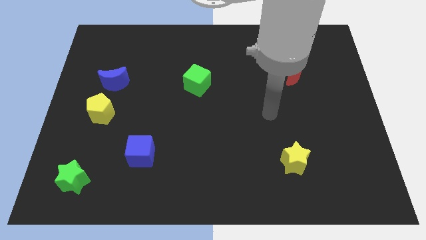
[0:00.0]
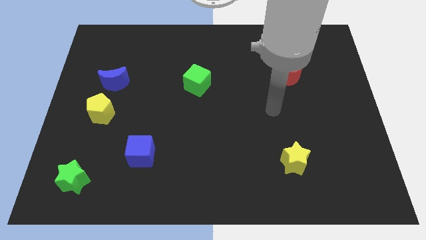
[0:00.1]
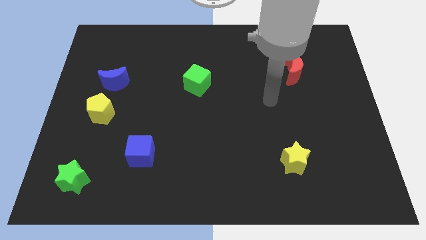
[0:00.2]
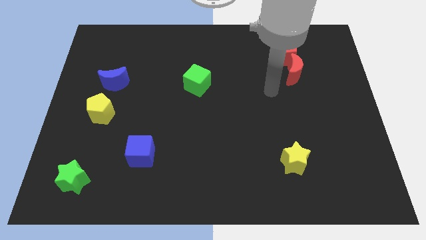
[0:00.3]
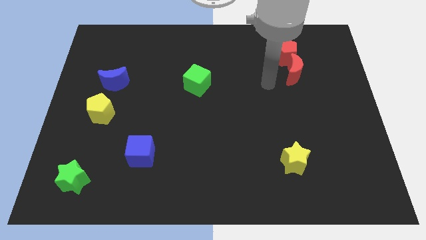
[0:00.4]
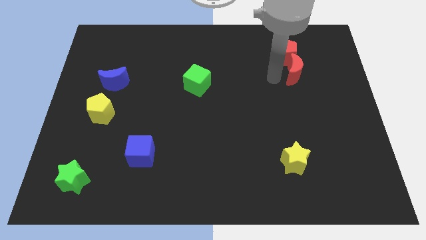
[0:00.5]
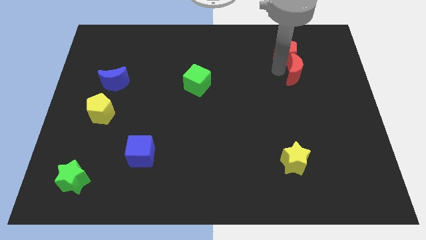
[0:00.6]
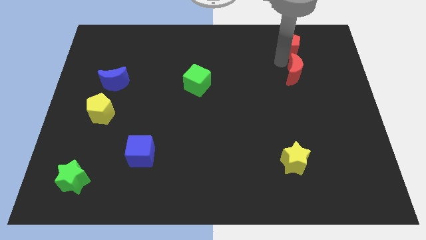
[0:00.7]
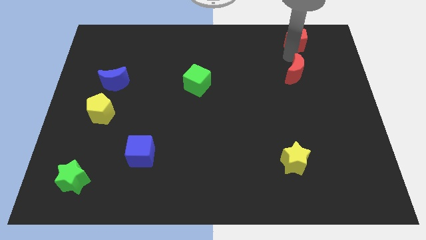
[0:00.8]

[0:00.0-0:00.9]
separate the red moon from the red pentagon

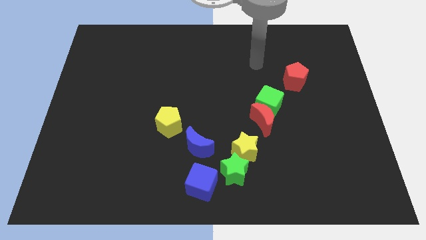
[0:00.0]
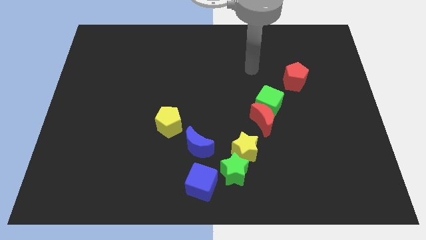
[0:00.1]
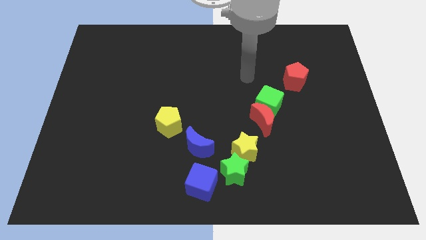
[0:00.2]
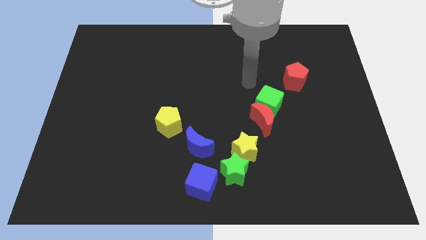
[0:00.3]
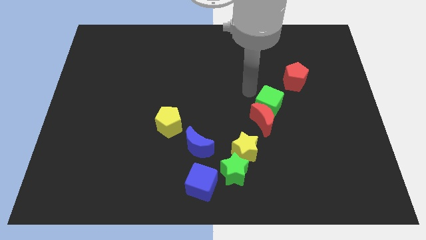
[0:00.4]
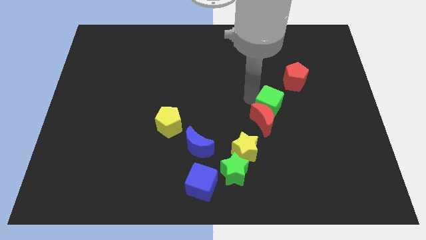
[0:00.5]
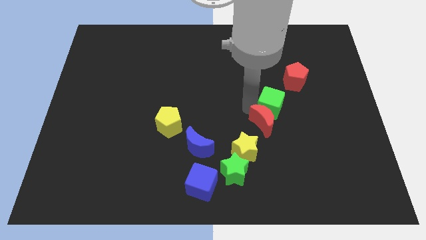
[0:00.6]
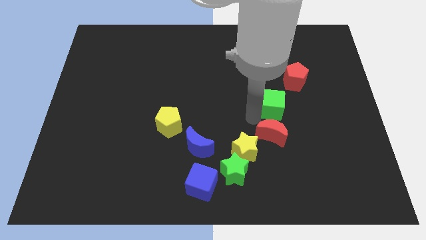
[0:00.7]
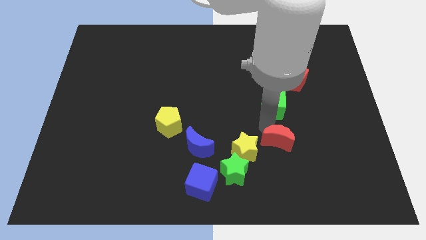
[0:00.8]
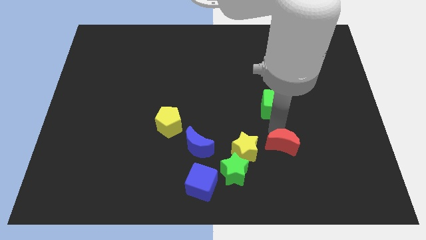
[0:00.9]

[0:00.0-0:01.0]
pull the green cube apart from the red moon

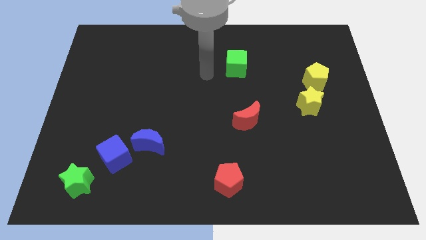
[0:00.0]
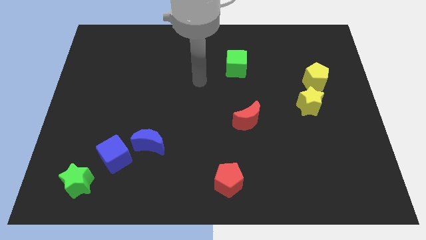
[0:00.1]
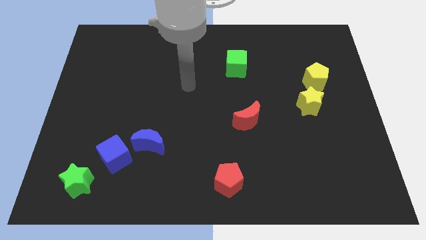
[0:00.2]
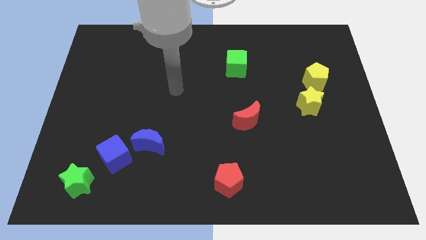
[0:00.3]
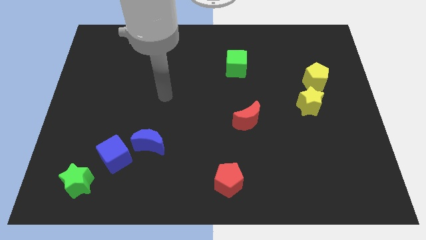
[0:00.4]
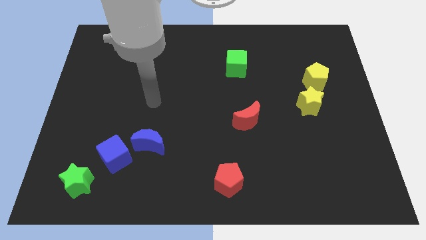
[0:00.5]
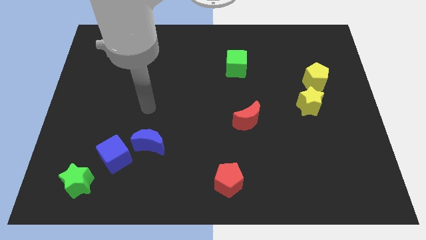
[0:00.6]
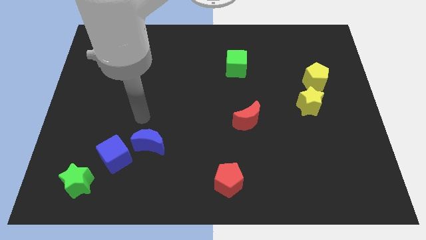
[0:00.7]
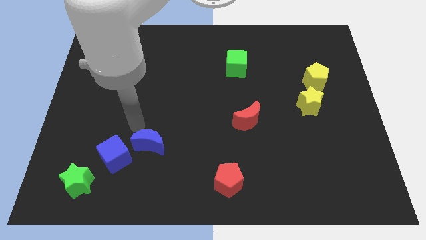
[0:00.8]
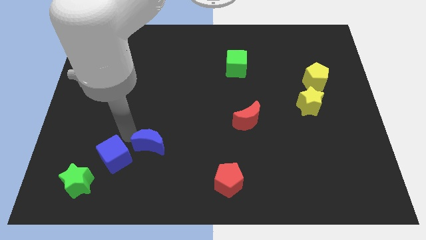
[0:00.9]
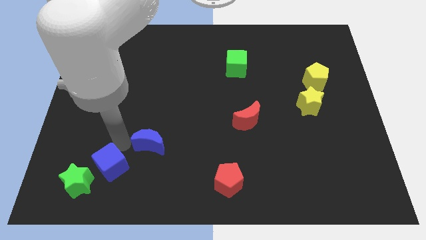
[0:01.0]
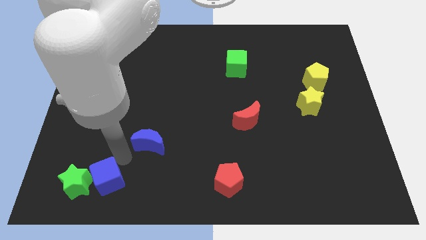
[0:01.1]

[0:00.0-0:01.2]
pull the blue moon apart from the blue cube

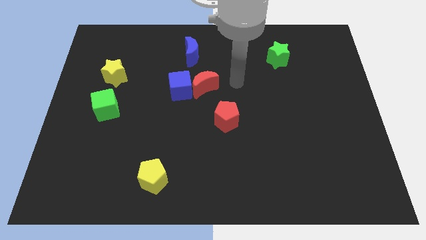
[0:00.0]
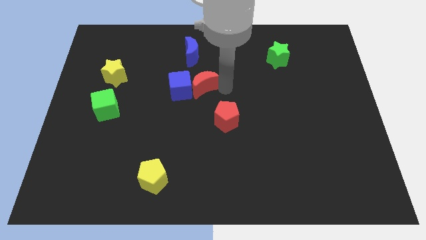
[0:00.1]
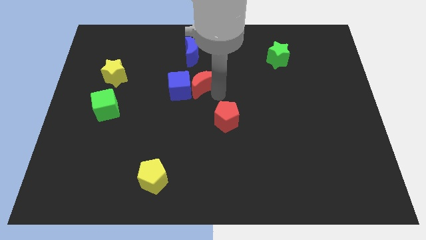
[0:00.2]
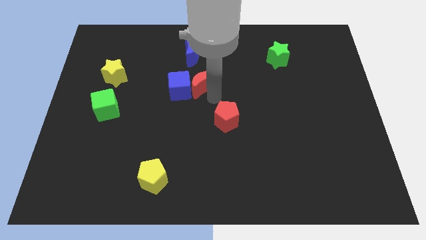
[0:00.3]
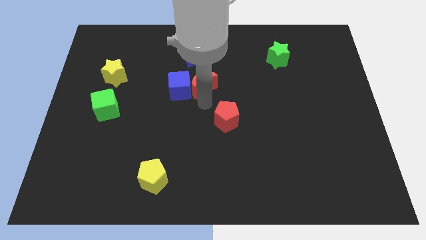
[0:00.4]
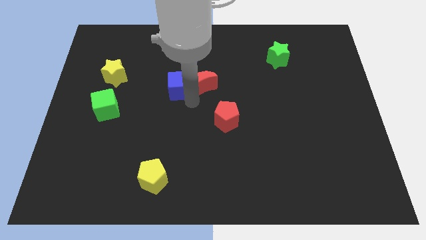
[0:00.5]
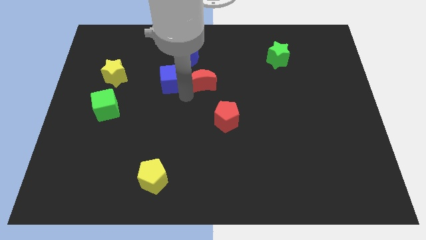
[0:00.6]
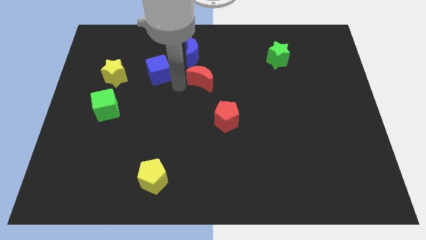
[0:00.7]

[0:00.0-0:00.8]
pull the red moon apart from the blue cube

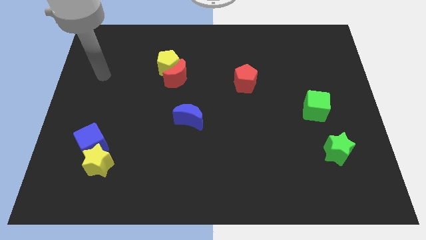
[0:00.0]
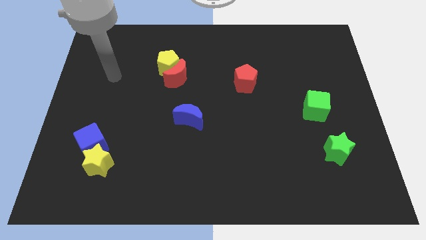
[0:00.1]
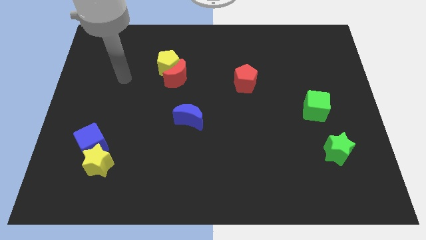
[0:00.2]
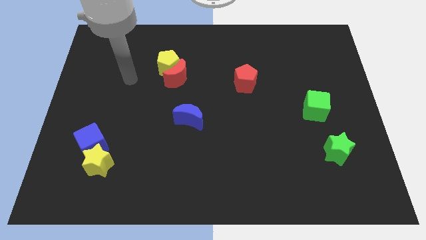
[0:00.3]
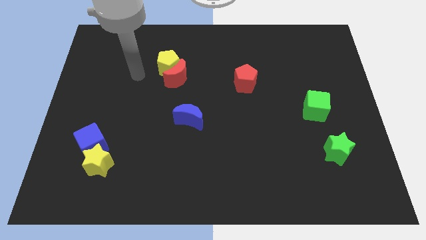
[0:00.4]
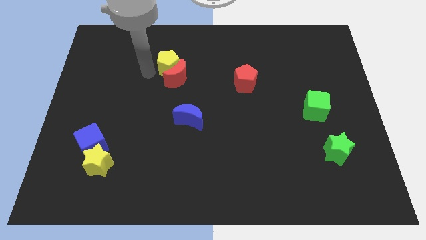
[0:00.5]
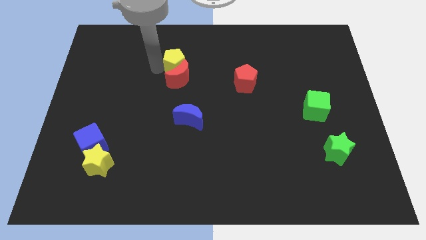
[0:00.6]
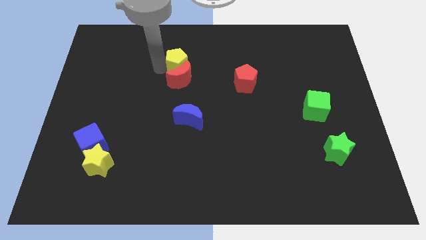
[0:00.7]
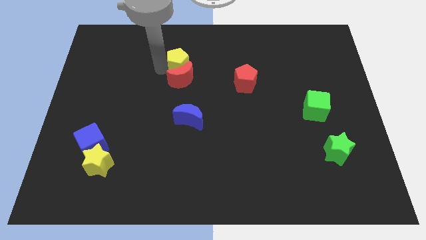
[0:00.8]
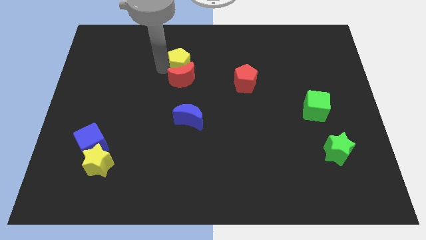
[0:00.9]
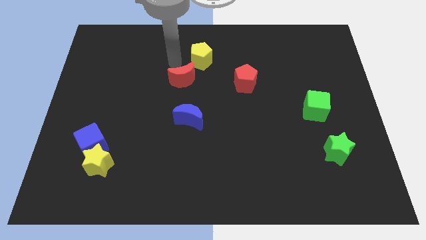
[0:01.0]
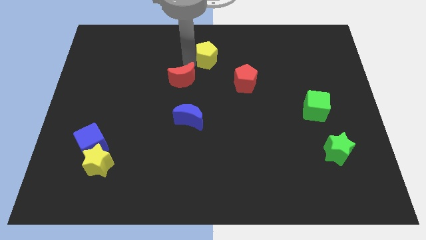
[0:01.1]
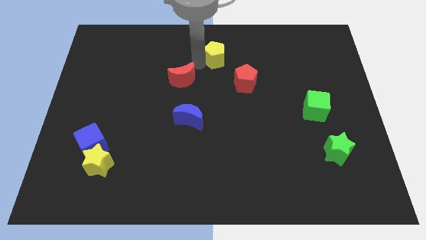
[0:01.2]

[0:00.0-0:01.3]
move the red moon away from the yellow pentagon

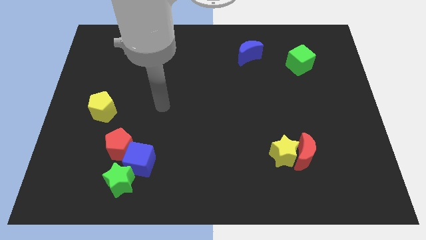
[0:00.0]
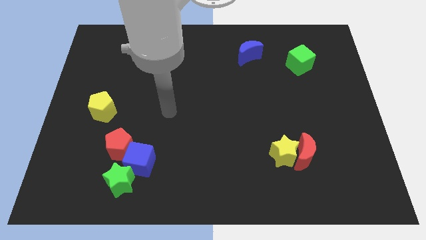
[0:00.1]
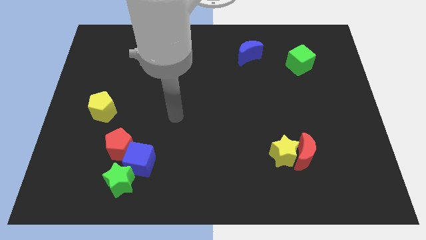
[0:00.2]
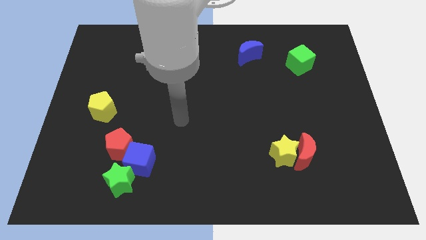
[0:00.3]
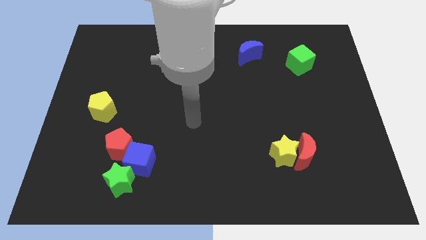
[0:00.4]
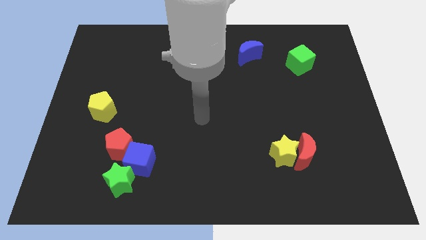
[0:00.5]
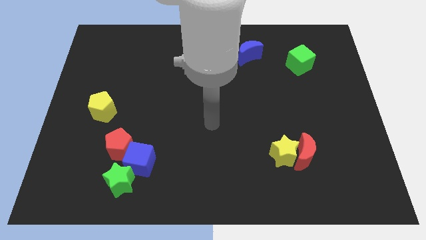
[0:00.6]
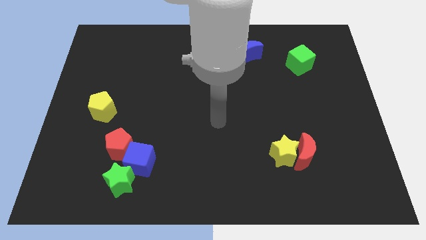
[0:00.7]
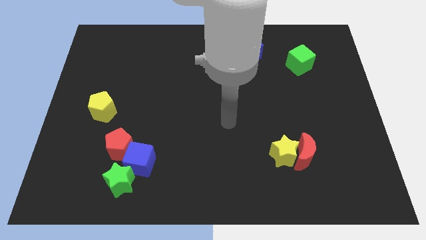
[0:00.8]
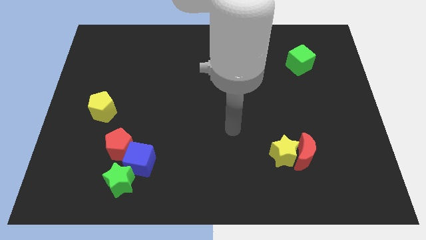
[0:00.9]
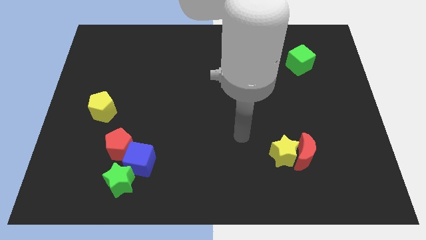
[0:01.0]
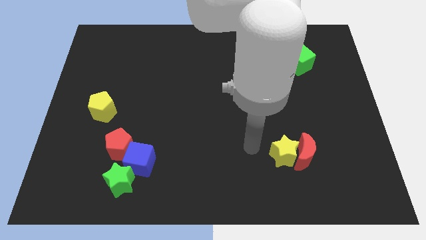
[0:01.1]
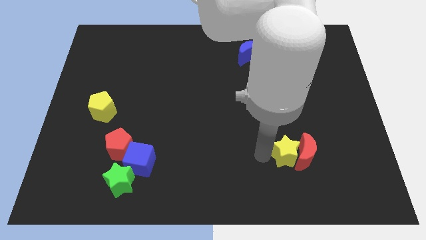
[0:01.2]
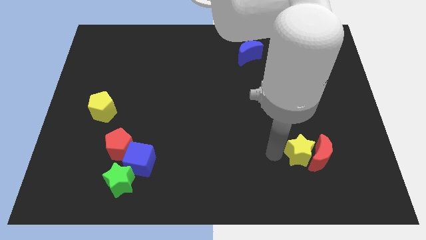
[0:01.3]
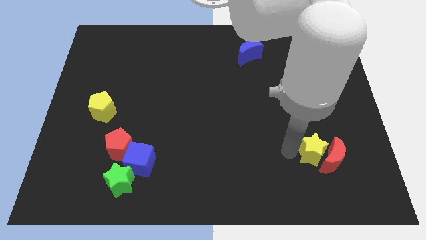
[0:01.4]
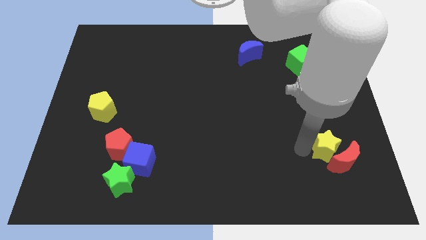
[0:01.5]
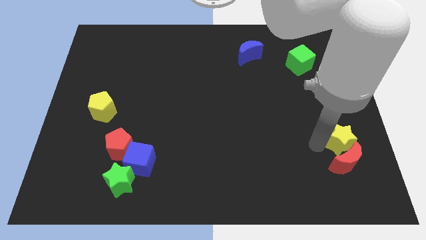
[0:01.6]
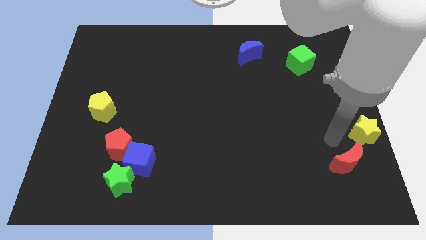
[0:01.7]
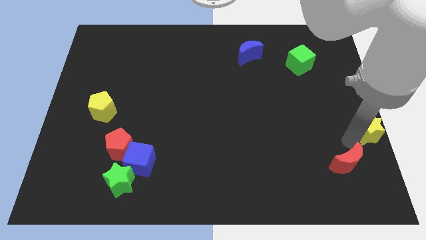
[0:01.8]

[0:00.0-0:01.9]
pull the red moon apart from the yellow star

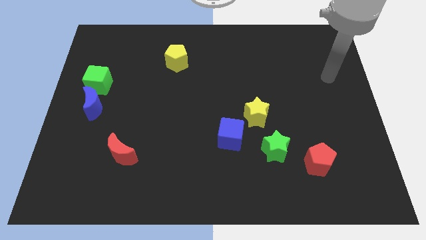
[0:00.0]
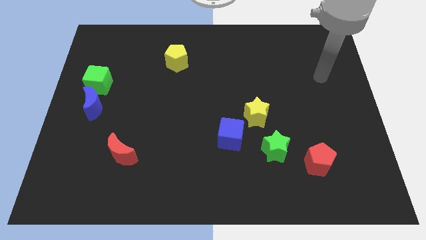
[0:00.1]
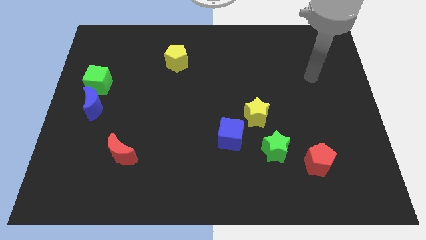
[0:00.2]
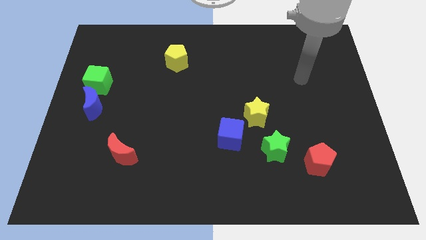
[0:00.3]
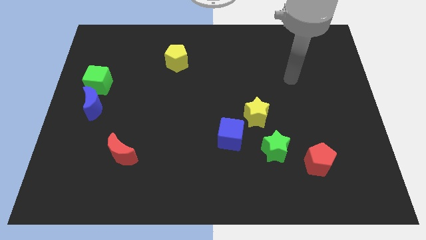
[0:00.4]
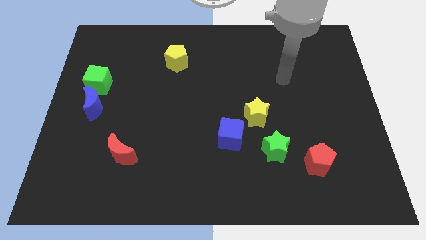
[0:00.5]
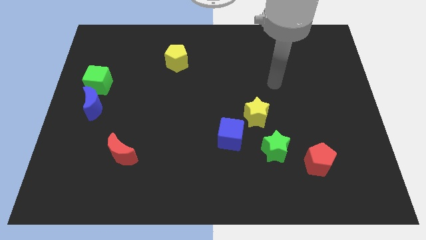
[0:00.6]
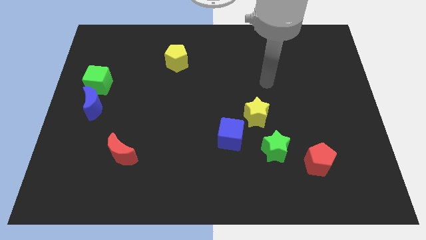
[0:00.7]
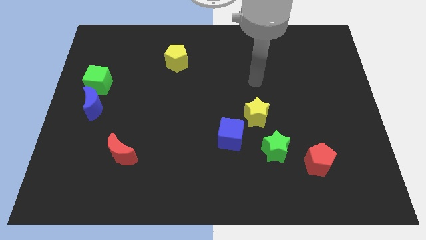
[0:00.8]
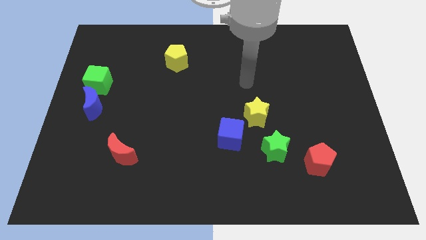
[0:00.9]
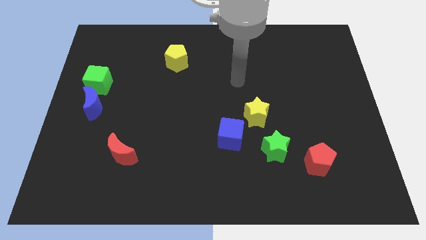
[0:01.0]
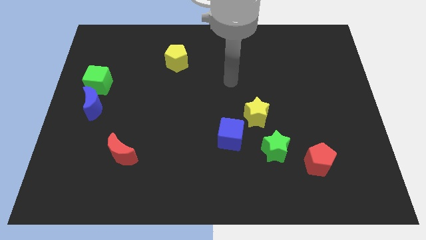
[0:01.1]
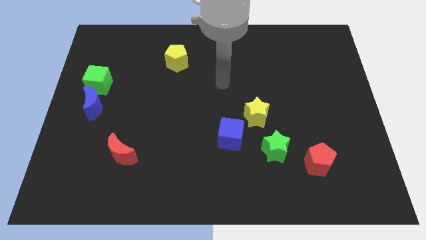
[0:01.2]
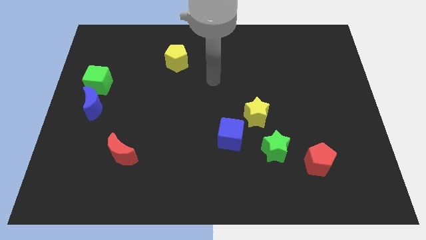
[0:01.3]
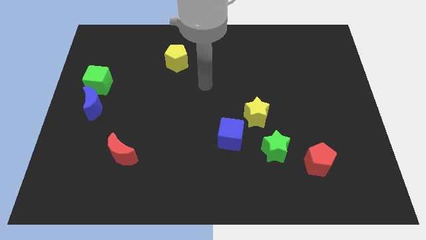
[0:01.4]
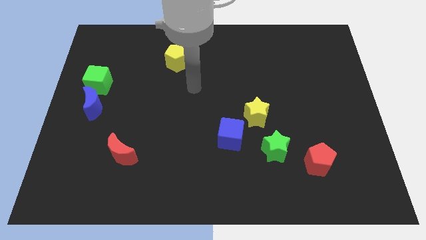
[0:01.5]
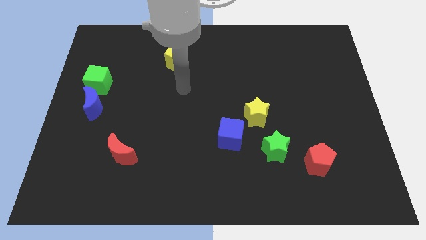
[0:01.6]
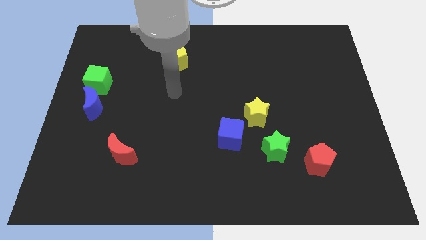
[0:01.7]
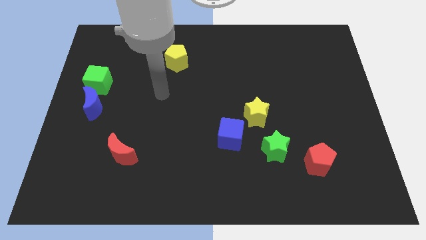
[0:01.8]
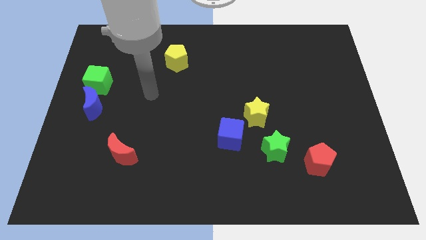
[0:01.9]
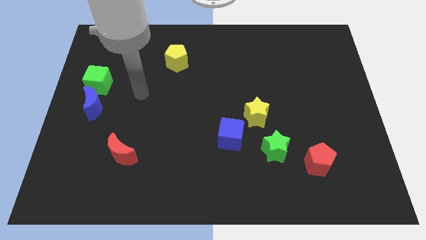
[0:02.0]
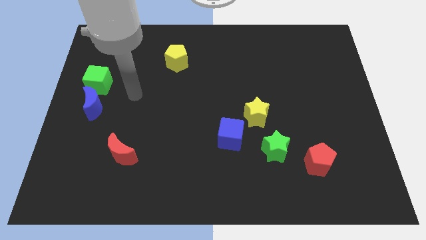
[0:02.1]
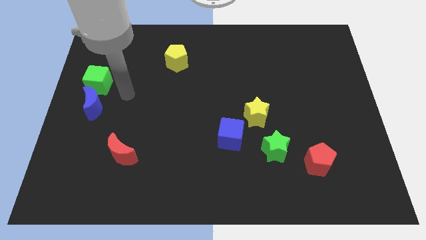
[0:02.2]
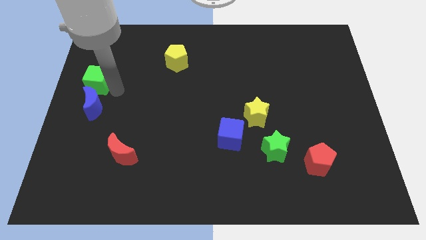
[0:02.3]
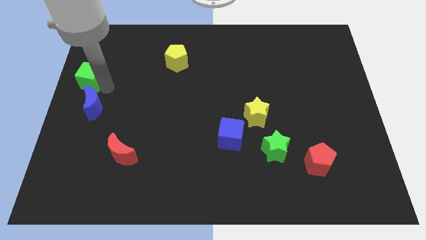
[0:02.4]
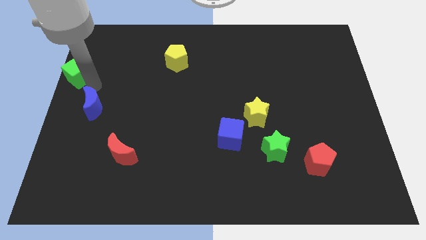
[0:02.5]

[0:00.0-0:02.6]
pull the blue moon apart from the green cube
